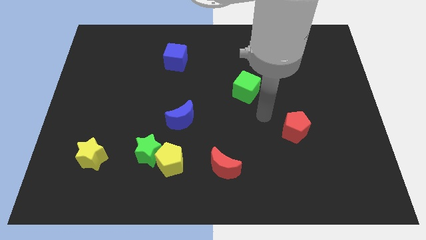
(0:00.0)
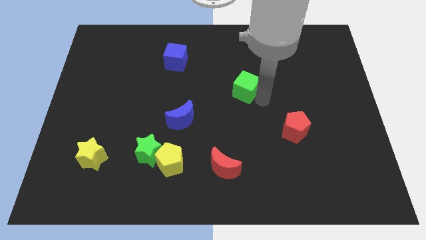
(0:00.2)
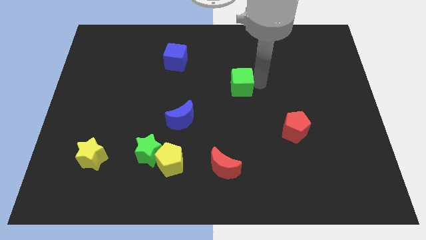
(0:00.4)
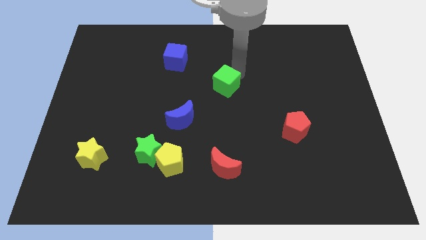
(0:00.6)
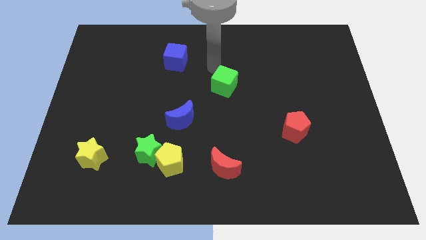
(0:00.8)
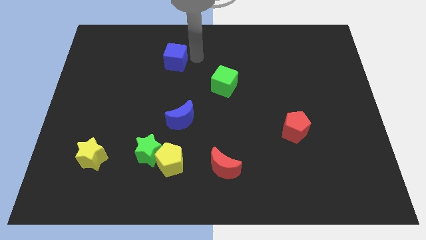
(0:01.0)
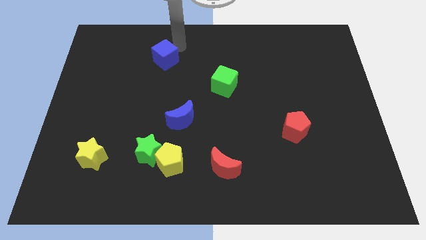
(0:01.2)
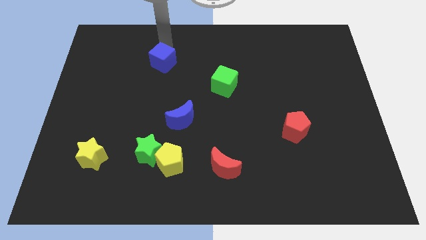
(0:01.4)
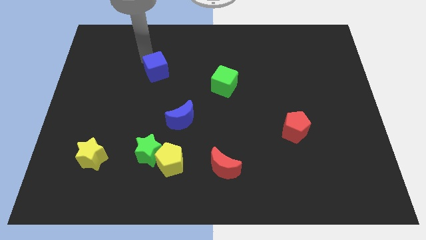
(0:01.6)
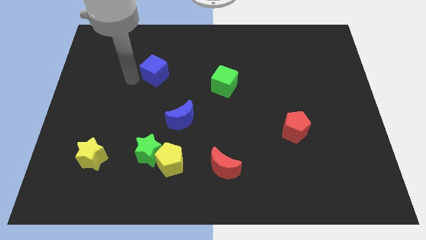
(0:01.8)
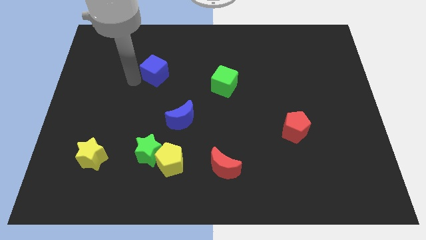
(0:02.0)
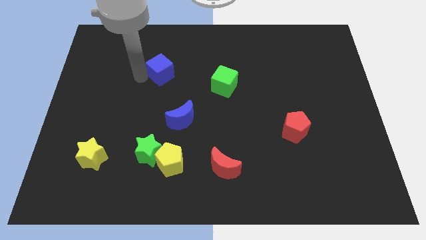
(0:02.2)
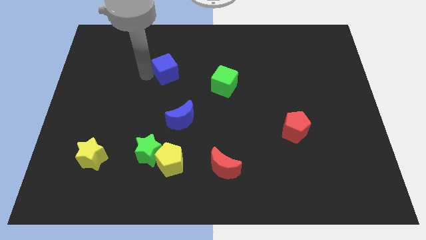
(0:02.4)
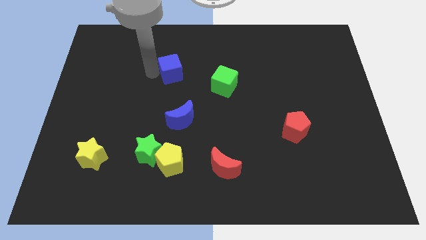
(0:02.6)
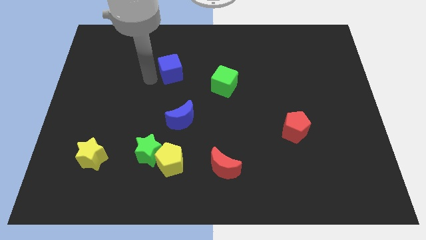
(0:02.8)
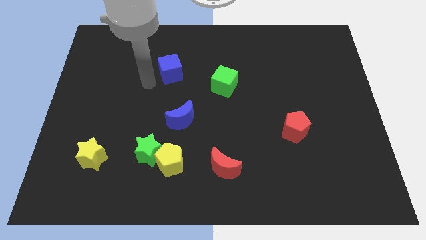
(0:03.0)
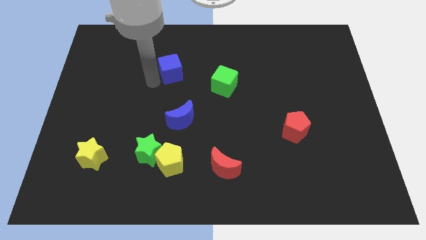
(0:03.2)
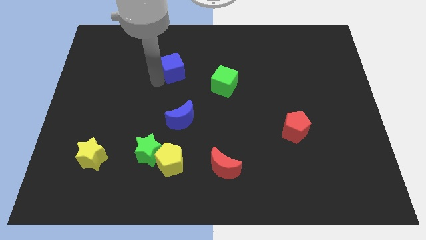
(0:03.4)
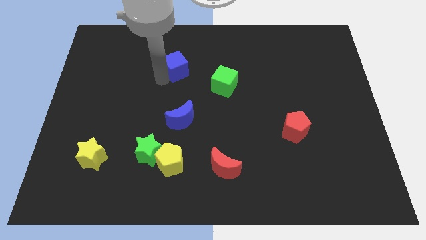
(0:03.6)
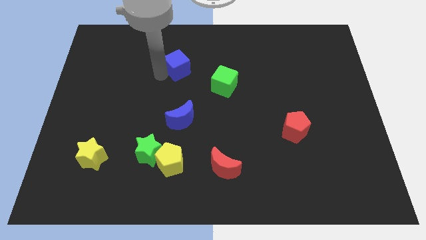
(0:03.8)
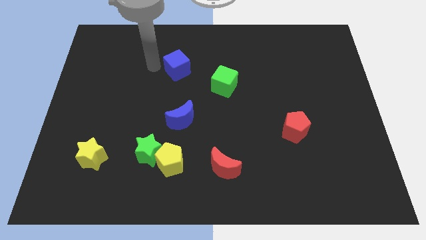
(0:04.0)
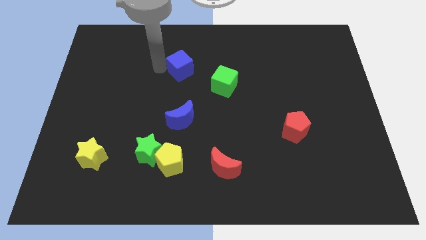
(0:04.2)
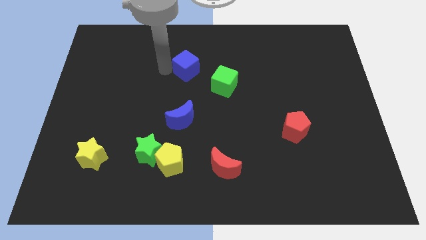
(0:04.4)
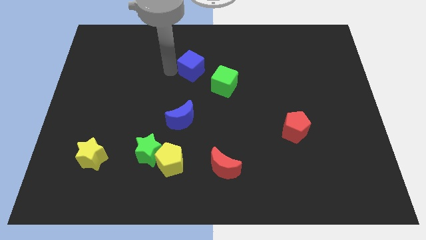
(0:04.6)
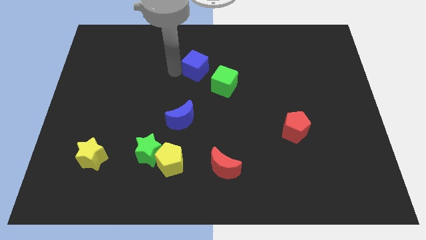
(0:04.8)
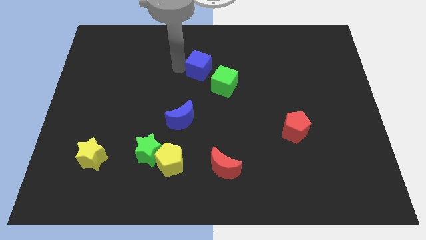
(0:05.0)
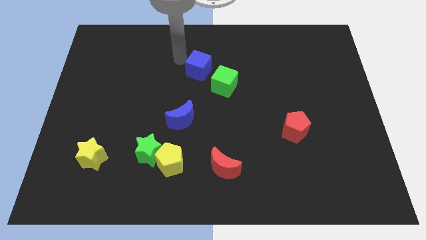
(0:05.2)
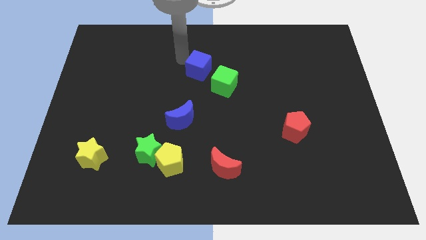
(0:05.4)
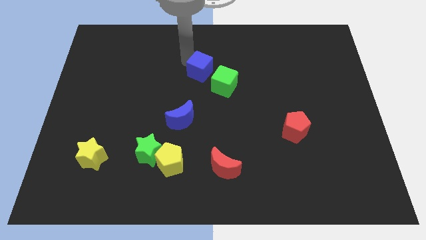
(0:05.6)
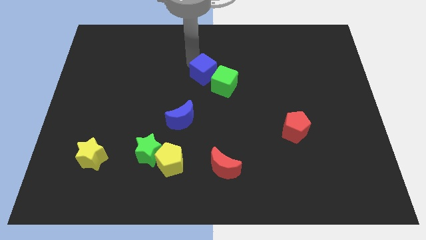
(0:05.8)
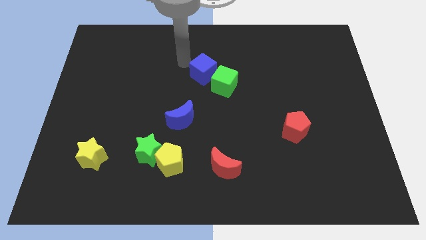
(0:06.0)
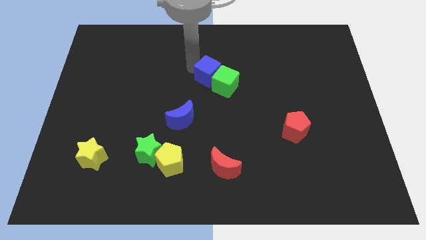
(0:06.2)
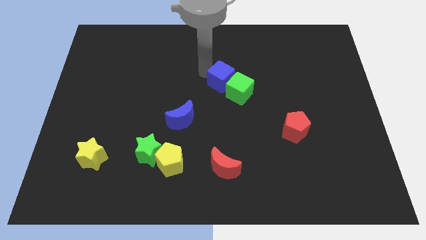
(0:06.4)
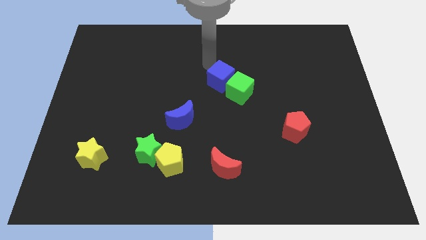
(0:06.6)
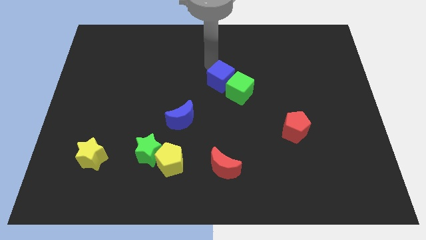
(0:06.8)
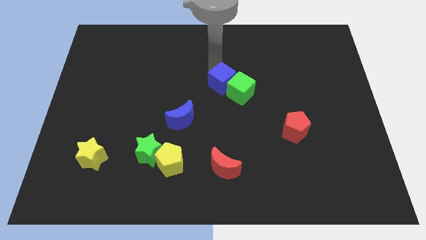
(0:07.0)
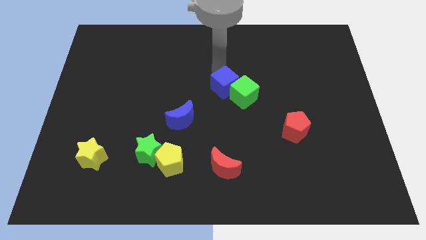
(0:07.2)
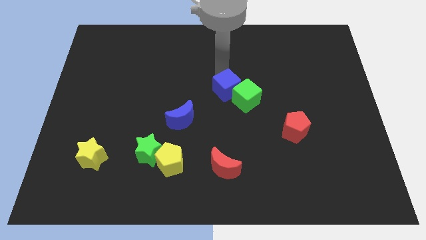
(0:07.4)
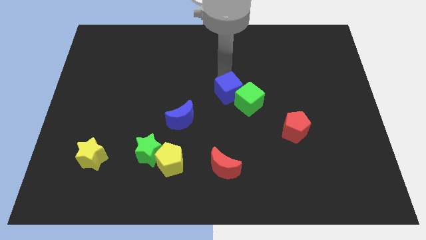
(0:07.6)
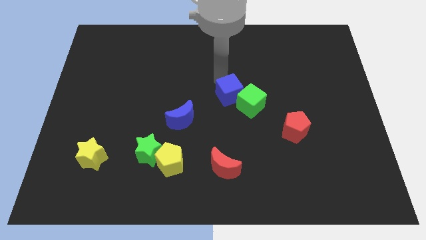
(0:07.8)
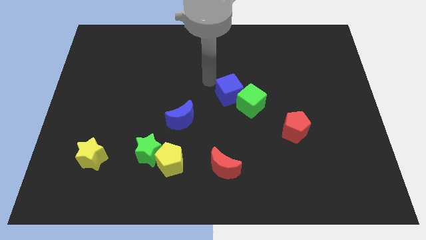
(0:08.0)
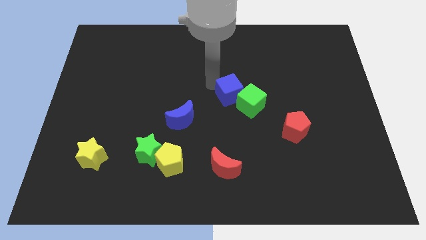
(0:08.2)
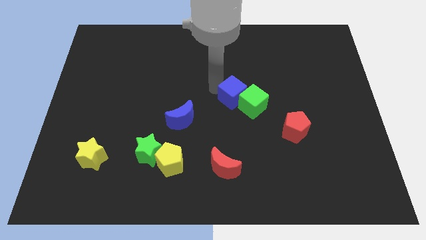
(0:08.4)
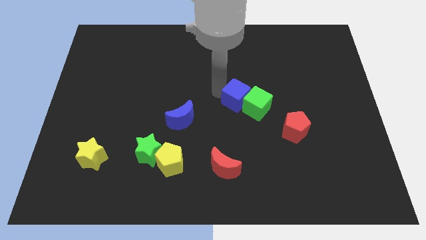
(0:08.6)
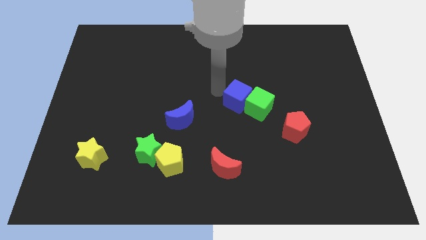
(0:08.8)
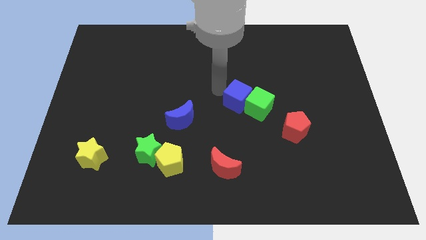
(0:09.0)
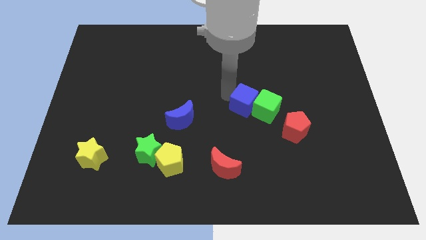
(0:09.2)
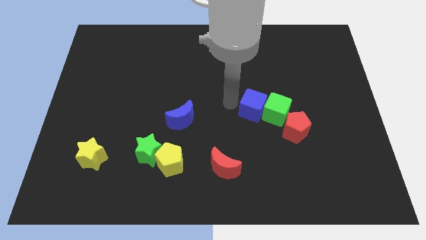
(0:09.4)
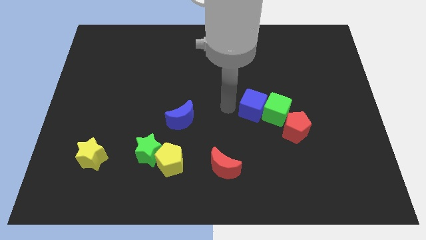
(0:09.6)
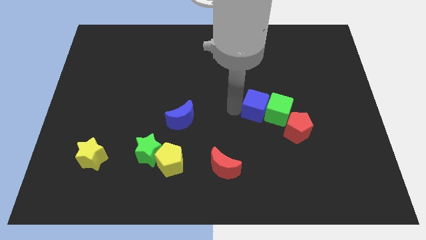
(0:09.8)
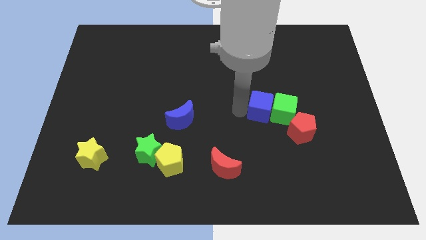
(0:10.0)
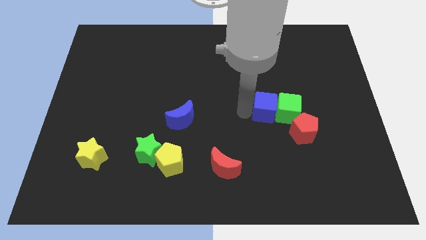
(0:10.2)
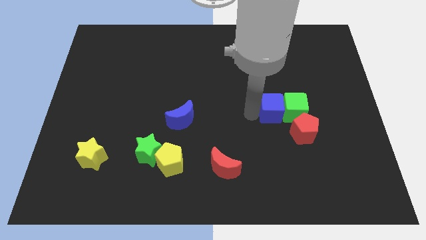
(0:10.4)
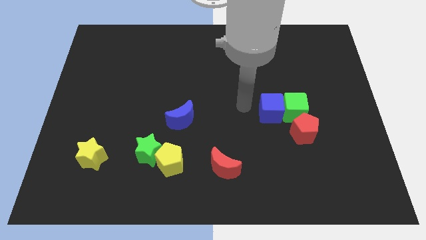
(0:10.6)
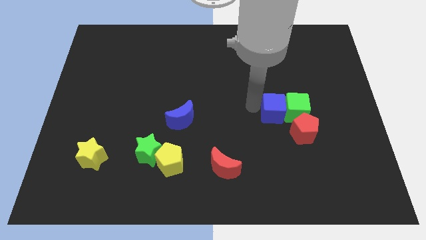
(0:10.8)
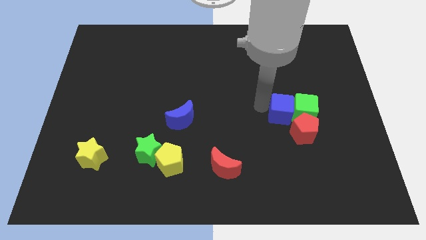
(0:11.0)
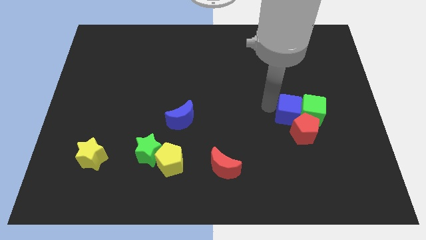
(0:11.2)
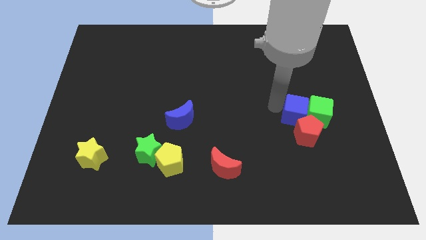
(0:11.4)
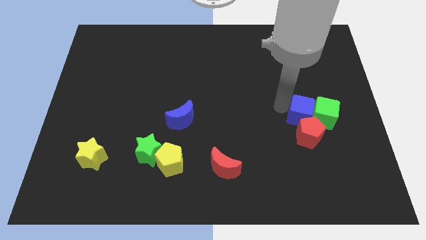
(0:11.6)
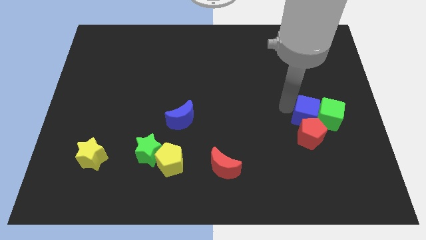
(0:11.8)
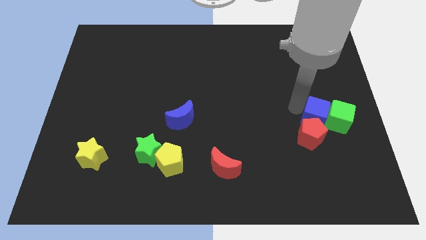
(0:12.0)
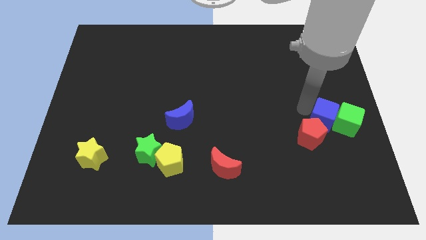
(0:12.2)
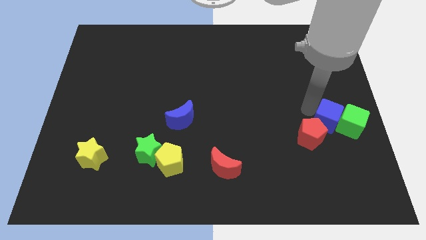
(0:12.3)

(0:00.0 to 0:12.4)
move the blue cube to the right of the red pentagon
